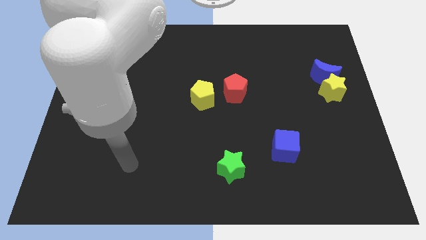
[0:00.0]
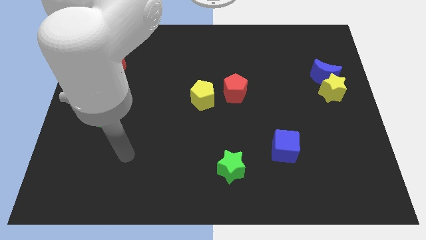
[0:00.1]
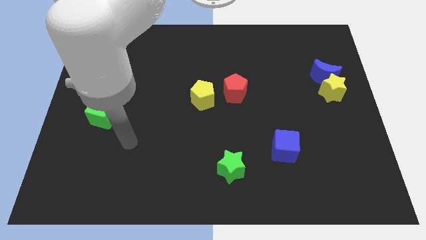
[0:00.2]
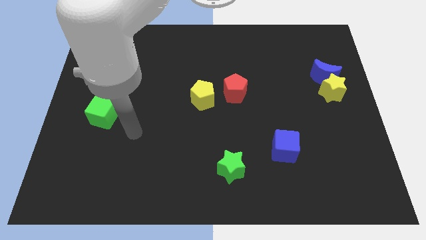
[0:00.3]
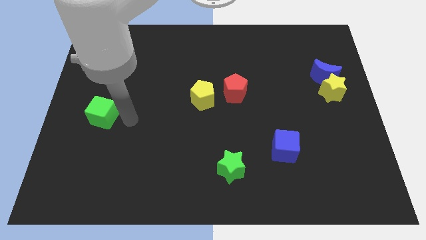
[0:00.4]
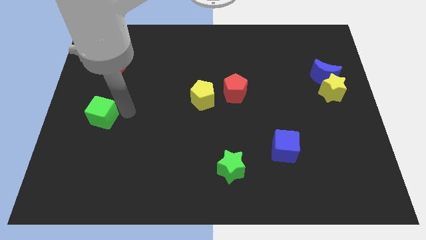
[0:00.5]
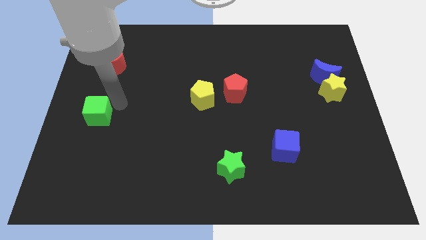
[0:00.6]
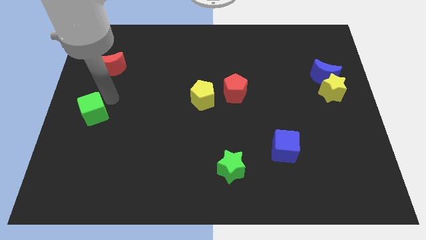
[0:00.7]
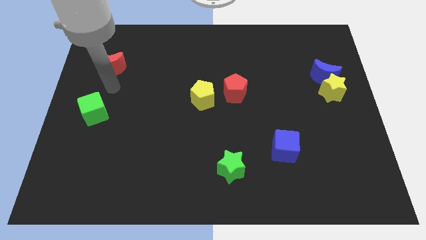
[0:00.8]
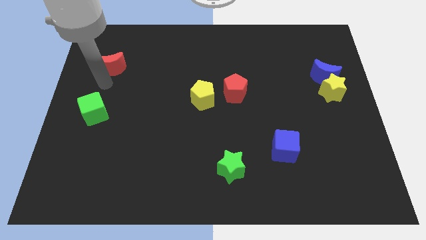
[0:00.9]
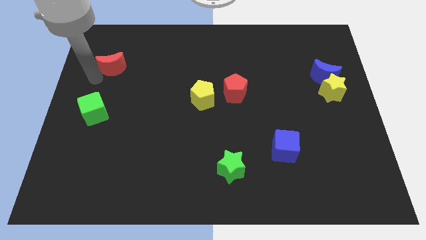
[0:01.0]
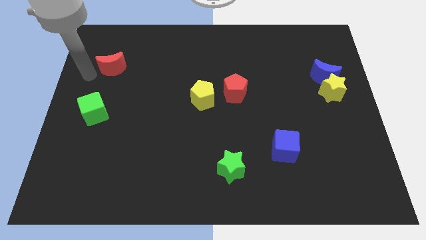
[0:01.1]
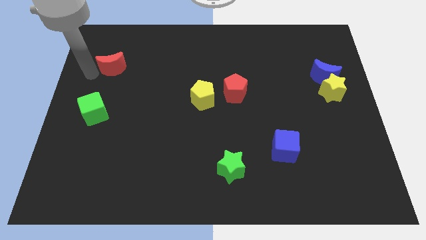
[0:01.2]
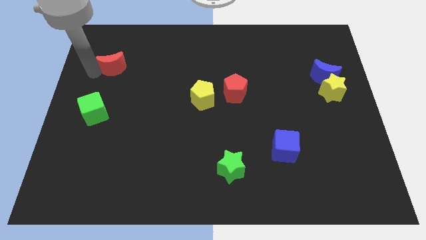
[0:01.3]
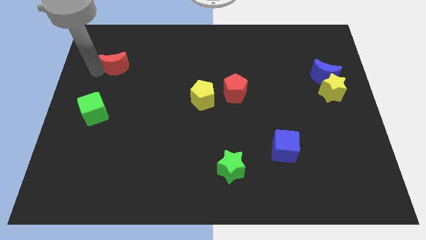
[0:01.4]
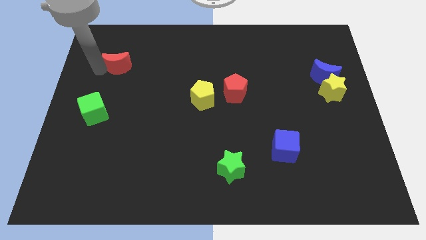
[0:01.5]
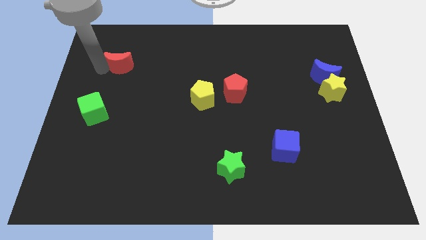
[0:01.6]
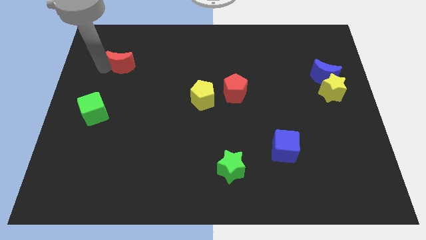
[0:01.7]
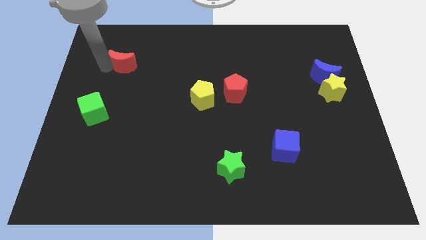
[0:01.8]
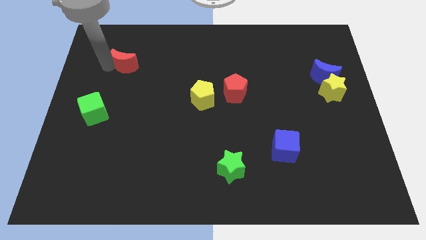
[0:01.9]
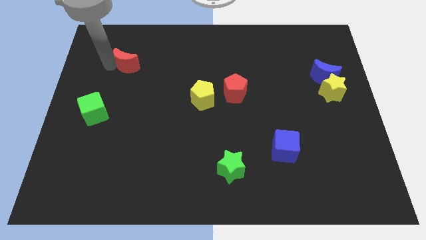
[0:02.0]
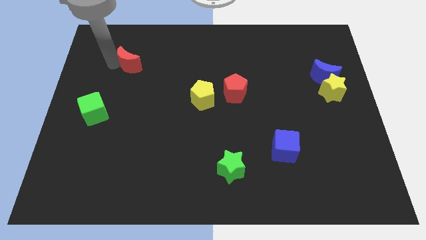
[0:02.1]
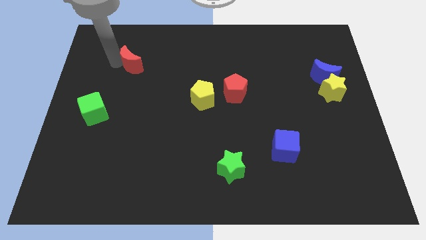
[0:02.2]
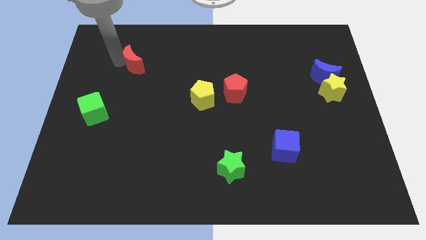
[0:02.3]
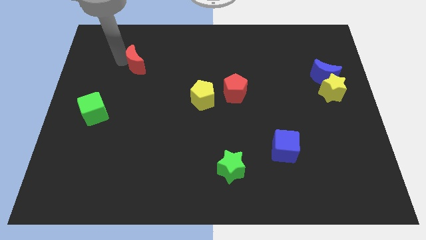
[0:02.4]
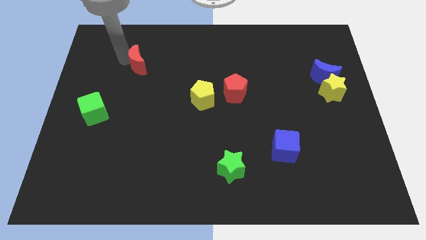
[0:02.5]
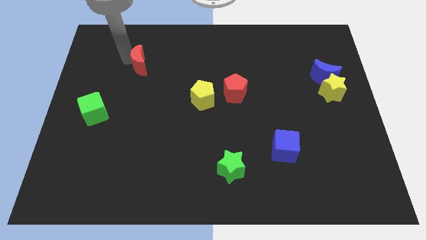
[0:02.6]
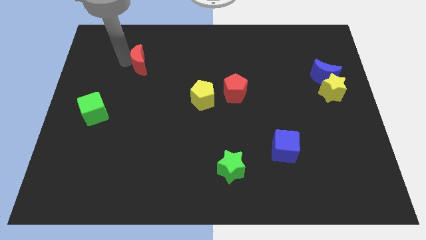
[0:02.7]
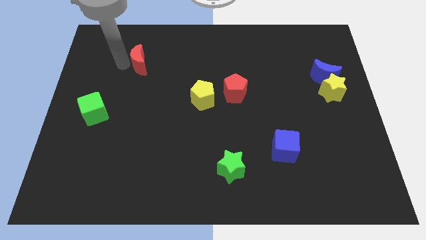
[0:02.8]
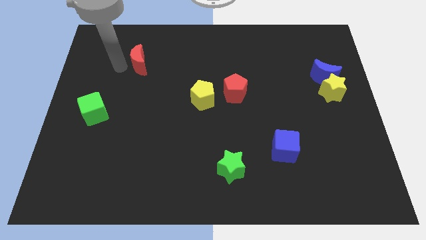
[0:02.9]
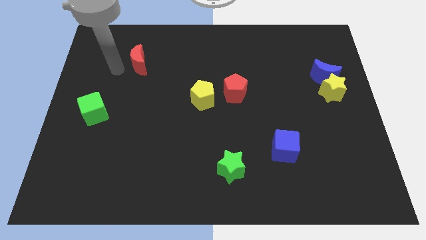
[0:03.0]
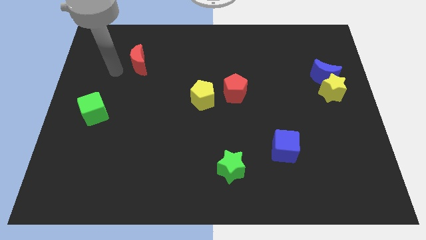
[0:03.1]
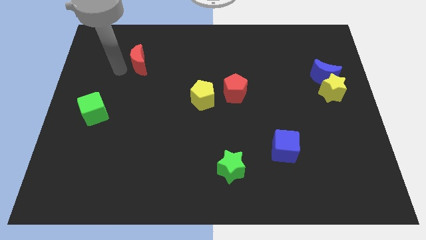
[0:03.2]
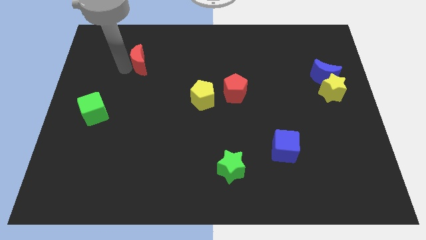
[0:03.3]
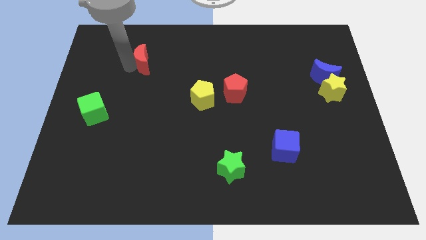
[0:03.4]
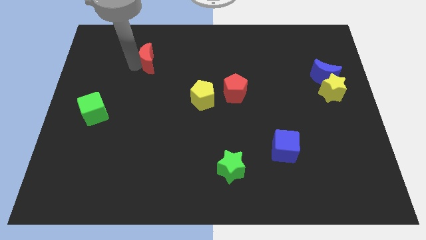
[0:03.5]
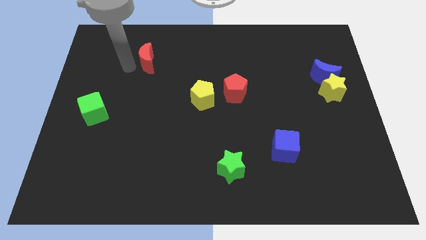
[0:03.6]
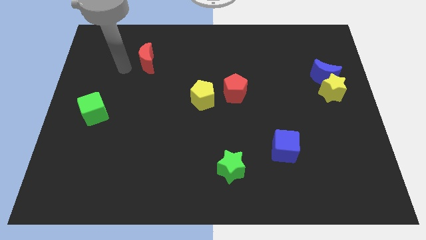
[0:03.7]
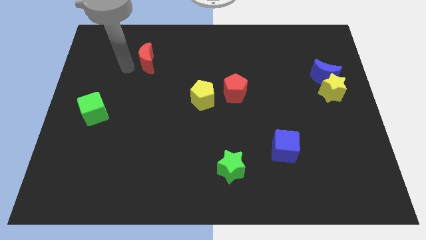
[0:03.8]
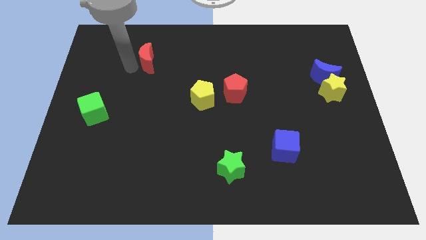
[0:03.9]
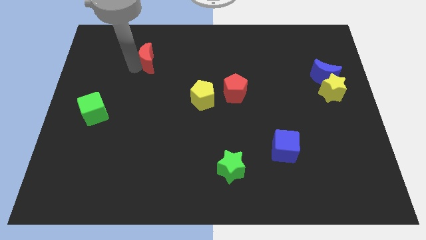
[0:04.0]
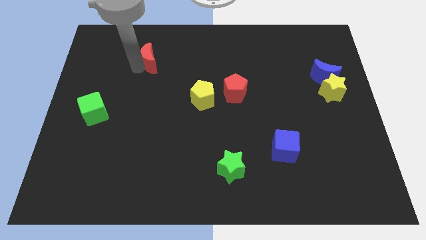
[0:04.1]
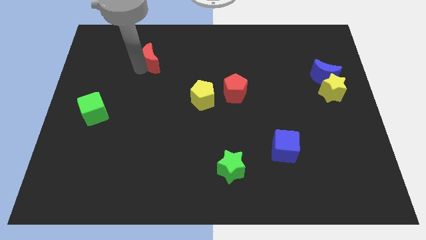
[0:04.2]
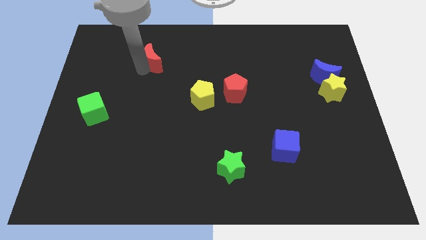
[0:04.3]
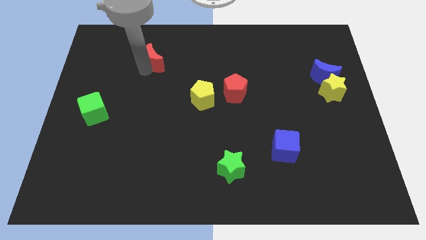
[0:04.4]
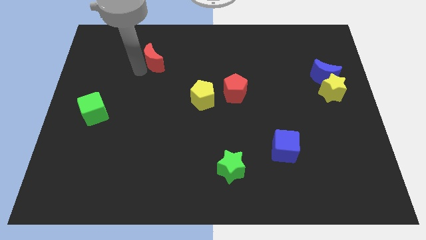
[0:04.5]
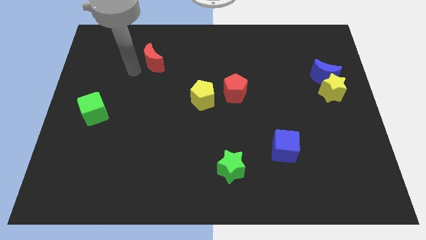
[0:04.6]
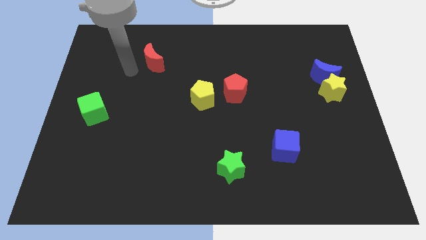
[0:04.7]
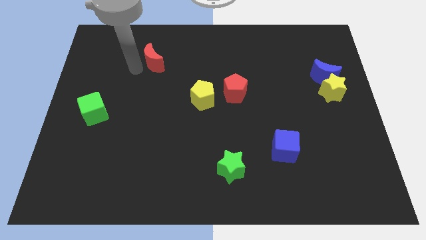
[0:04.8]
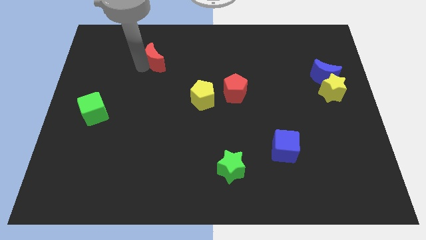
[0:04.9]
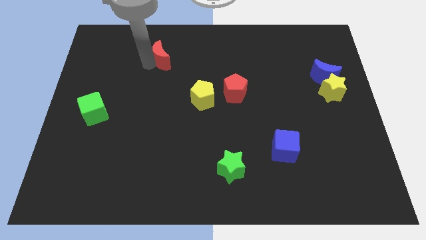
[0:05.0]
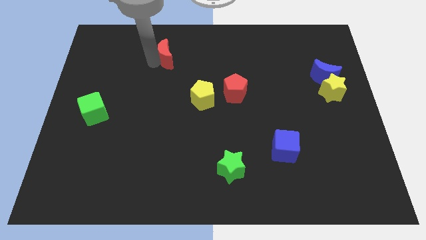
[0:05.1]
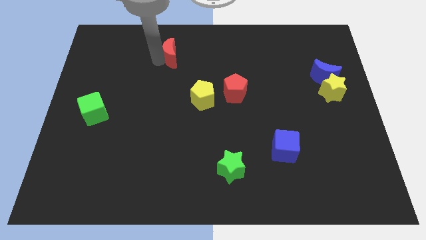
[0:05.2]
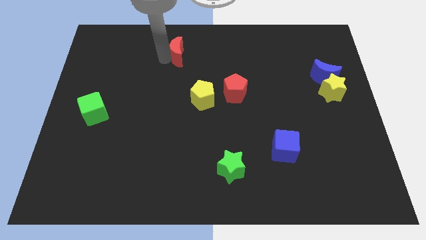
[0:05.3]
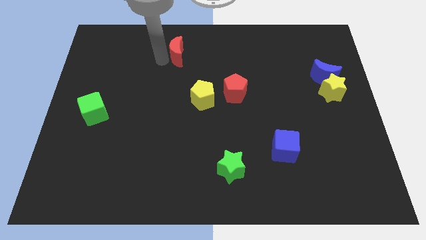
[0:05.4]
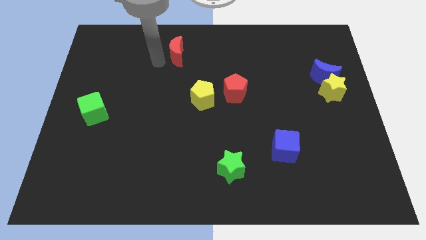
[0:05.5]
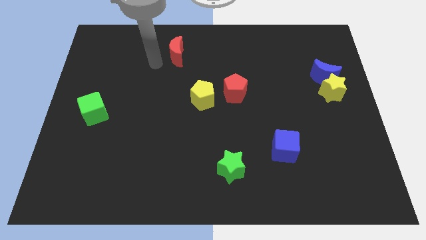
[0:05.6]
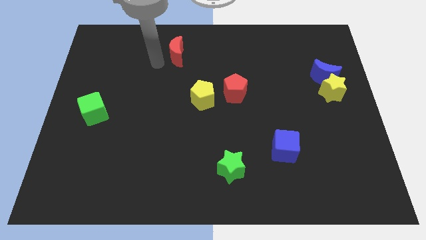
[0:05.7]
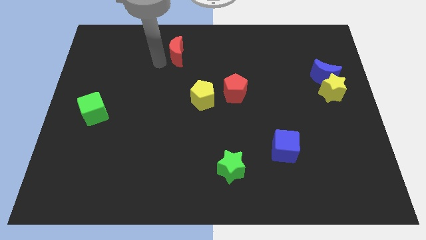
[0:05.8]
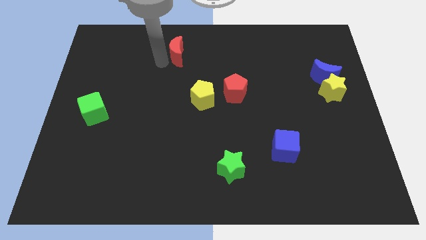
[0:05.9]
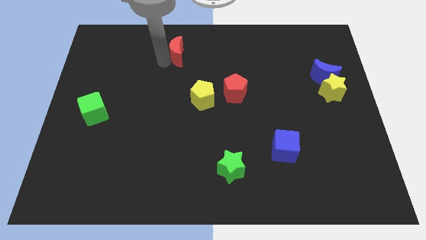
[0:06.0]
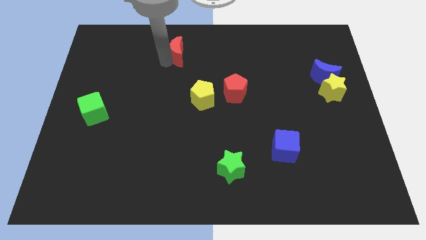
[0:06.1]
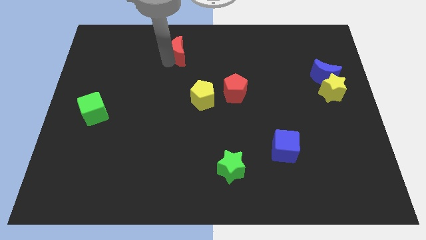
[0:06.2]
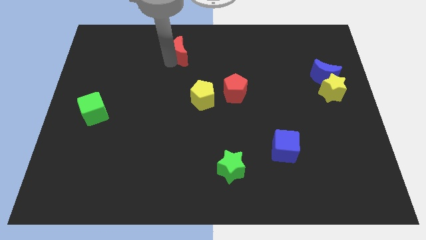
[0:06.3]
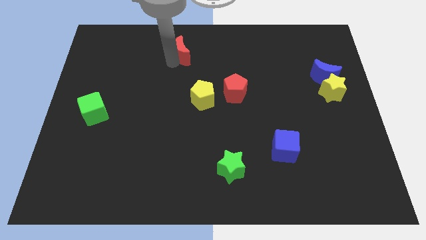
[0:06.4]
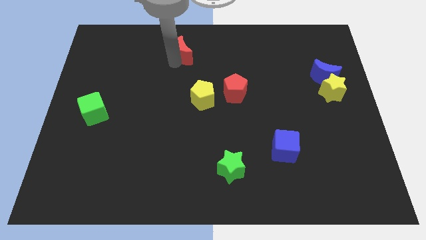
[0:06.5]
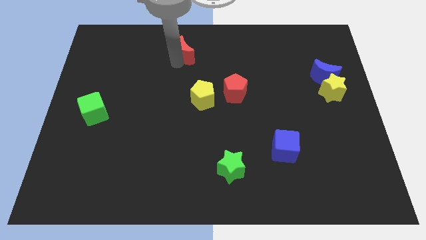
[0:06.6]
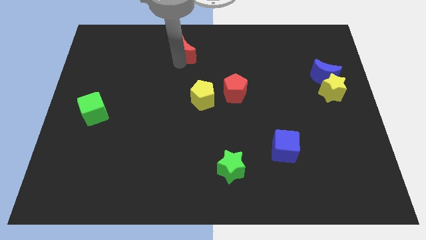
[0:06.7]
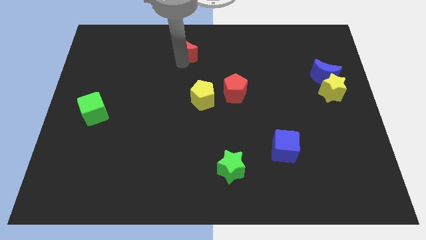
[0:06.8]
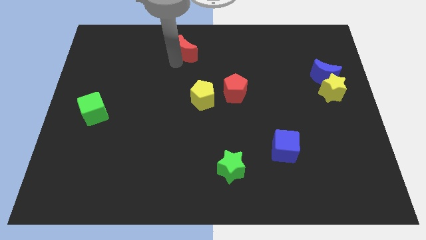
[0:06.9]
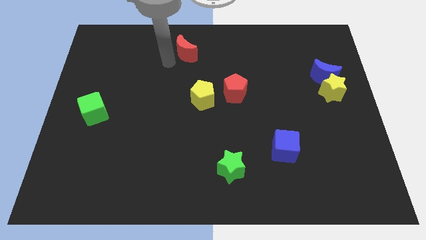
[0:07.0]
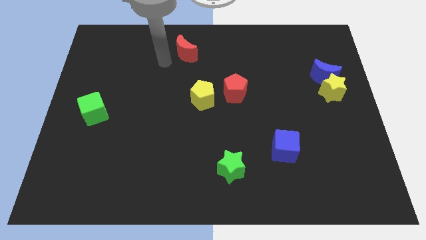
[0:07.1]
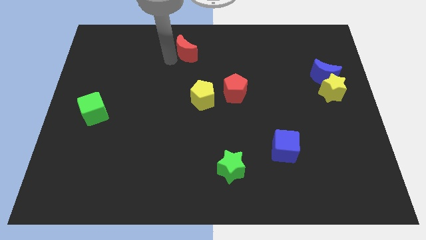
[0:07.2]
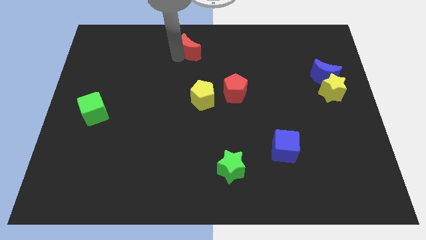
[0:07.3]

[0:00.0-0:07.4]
move the red moon to the towards your base
